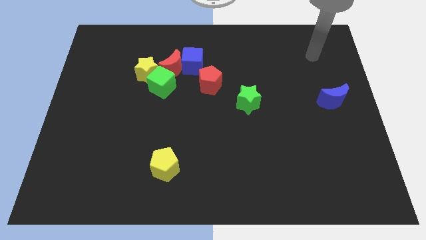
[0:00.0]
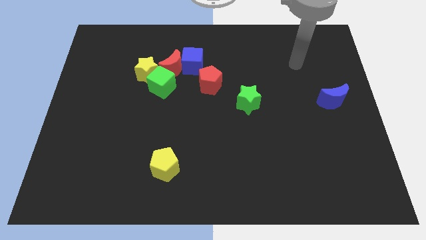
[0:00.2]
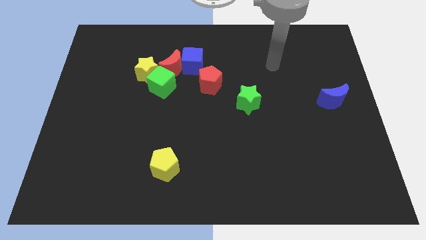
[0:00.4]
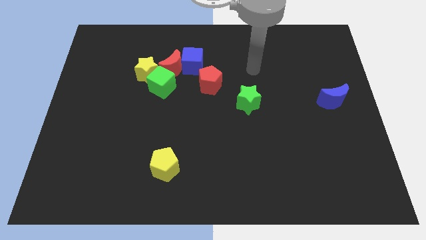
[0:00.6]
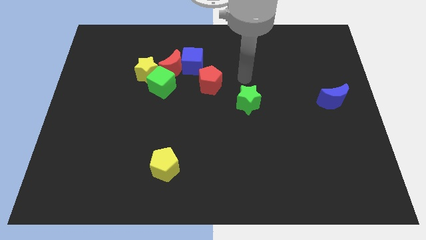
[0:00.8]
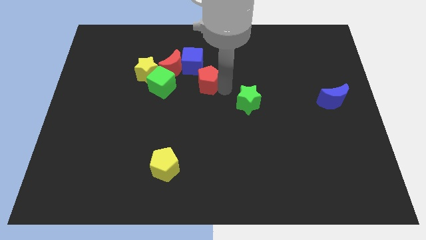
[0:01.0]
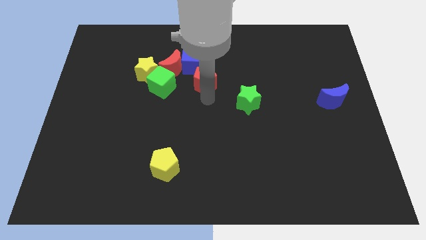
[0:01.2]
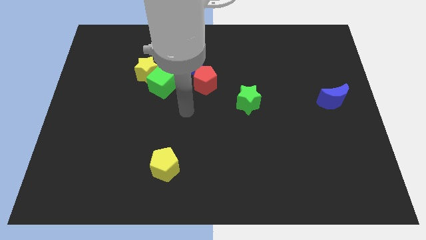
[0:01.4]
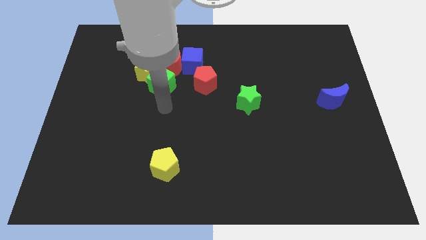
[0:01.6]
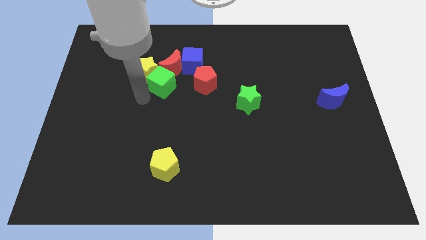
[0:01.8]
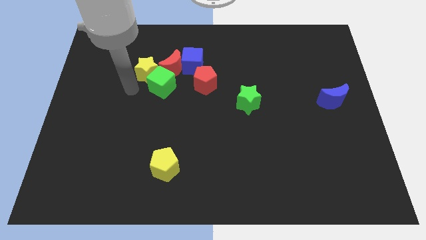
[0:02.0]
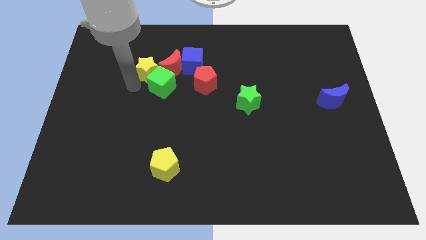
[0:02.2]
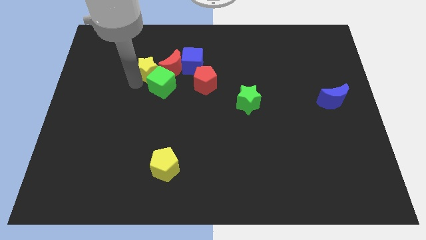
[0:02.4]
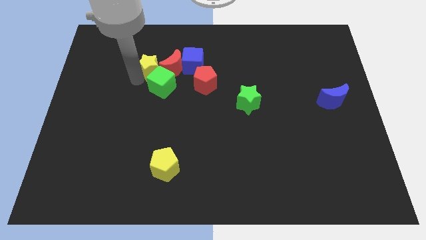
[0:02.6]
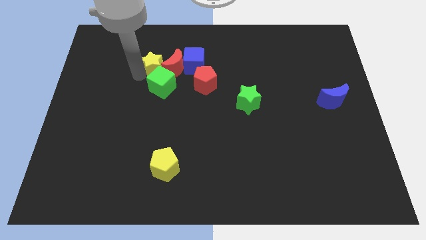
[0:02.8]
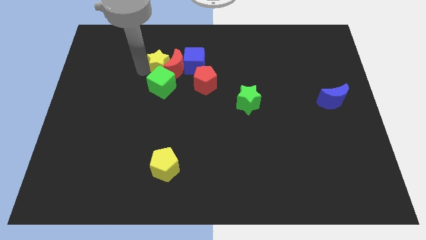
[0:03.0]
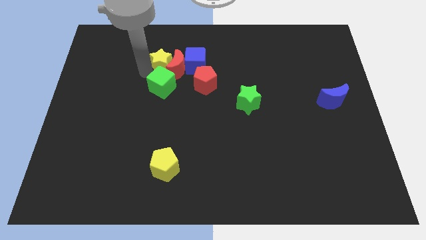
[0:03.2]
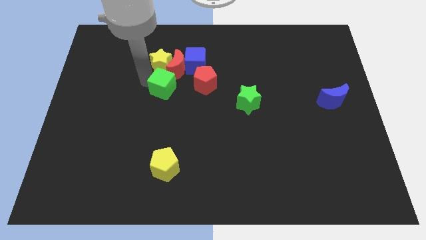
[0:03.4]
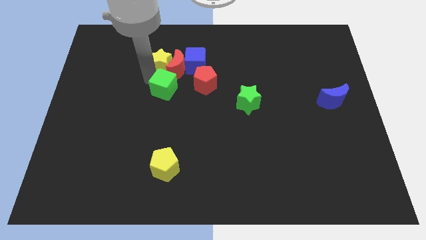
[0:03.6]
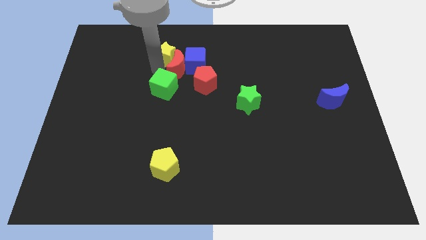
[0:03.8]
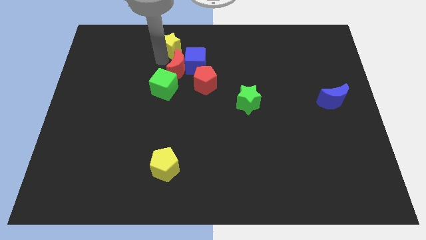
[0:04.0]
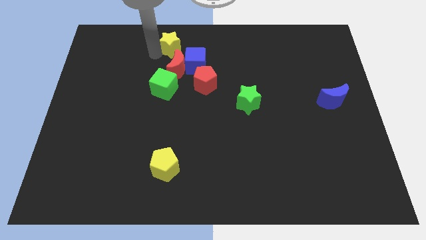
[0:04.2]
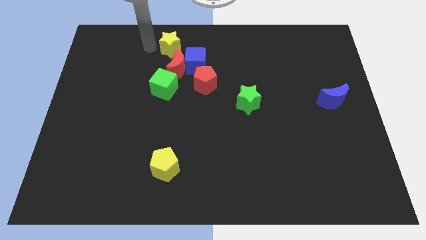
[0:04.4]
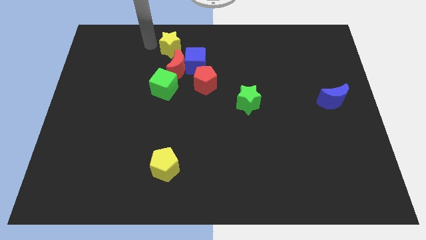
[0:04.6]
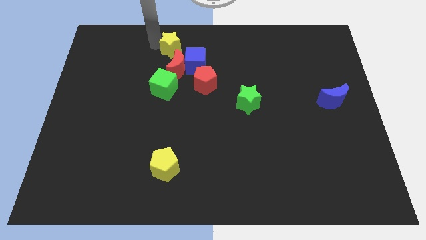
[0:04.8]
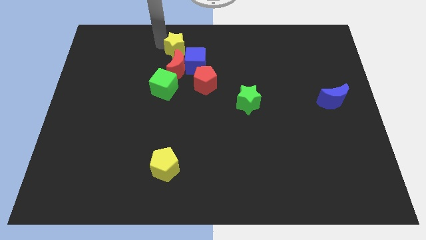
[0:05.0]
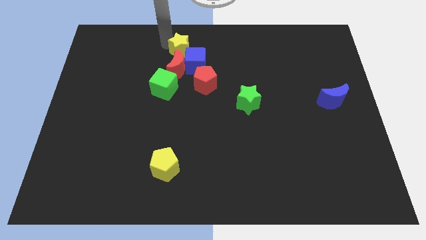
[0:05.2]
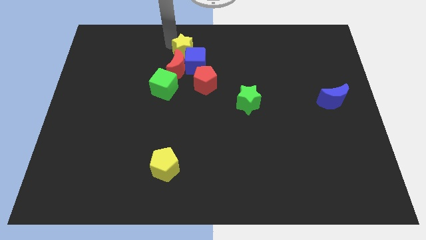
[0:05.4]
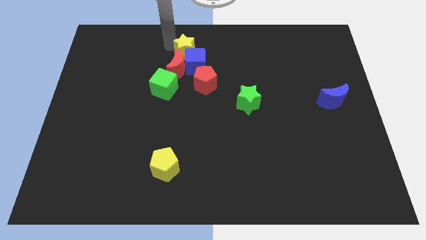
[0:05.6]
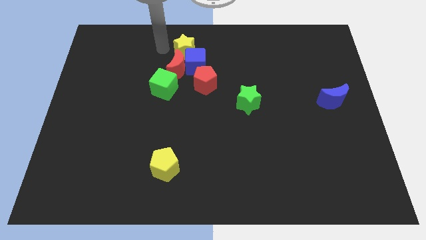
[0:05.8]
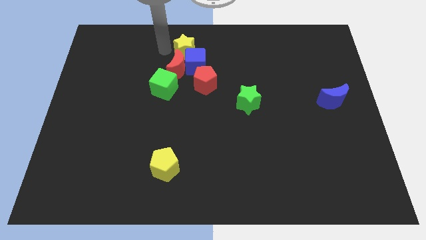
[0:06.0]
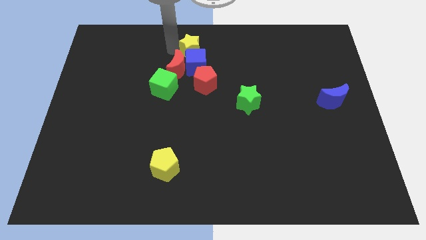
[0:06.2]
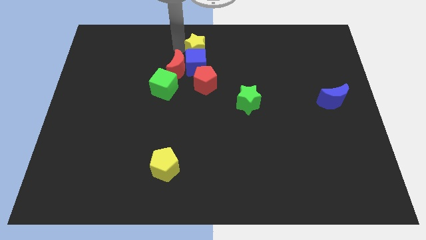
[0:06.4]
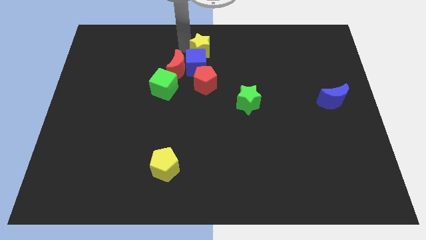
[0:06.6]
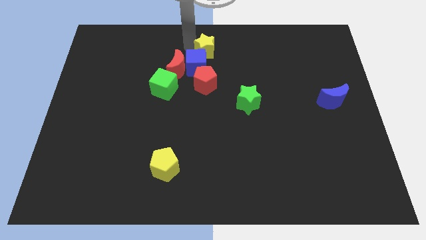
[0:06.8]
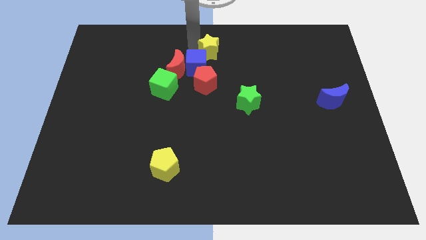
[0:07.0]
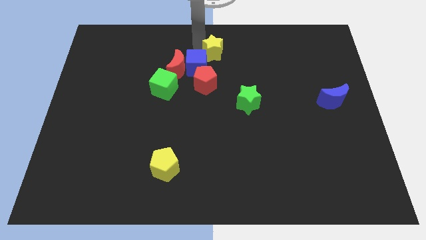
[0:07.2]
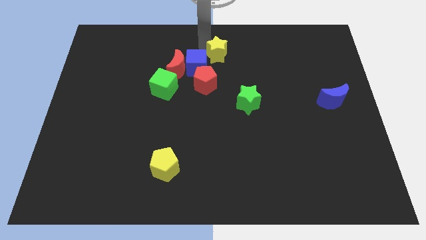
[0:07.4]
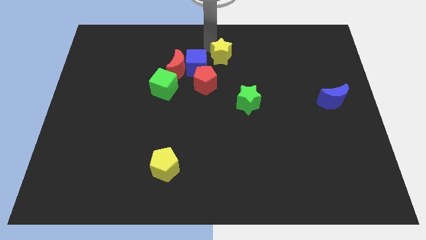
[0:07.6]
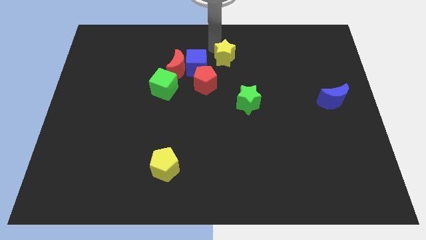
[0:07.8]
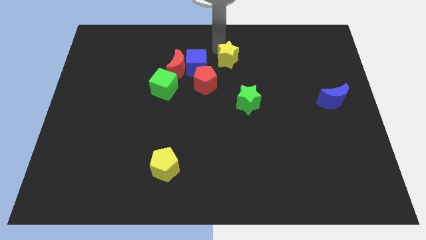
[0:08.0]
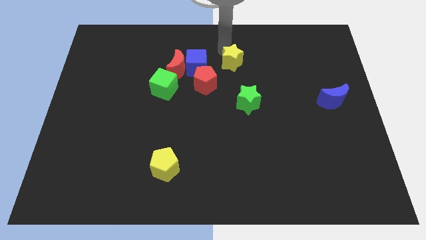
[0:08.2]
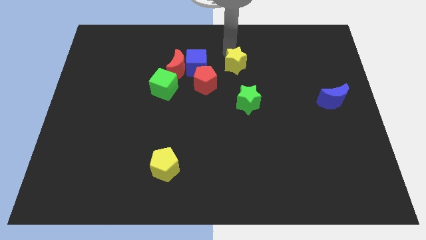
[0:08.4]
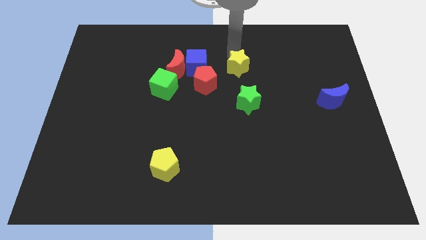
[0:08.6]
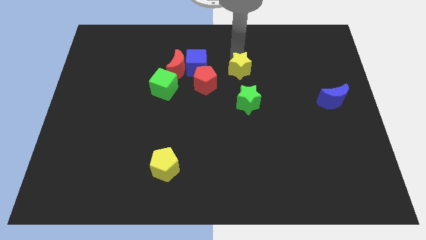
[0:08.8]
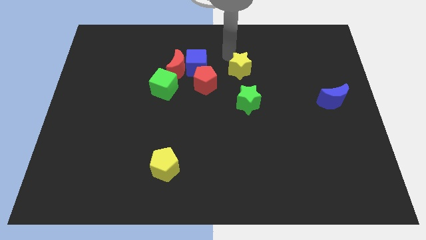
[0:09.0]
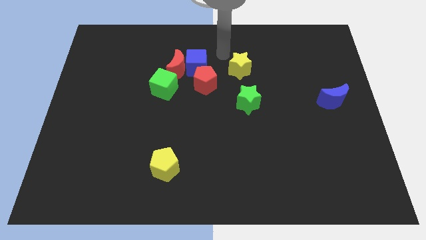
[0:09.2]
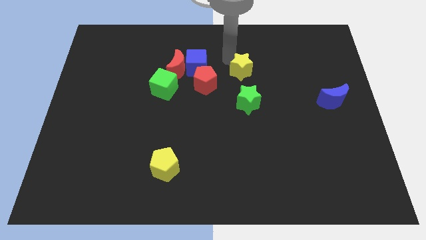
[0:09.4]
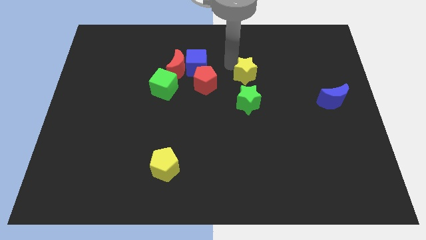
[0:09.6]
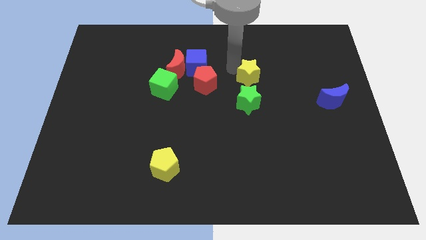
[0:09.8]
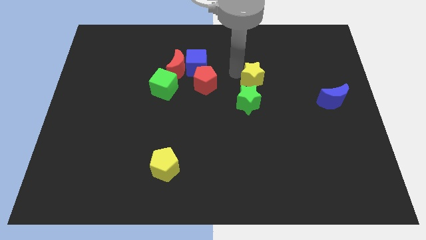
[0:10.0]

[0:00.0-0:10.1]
slide the yellow star to the top right of the green star

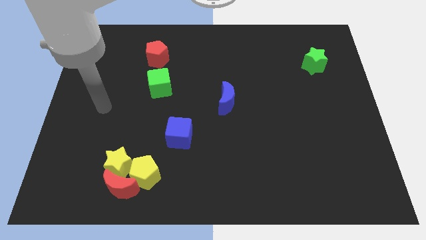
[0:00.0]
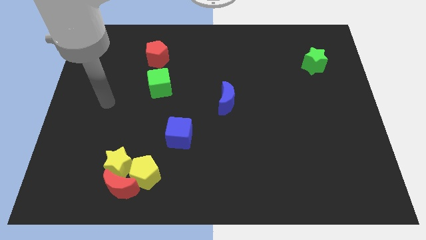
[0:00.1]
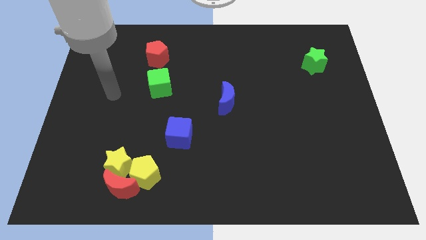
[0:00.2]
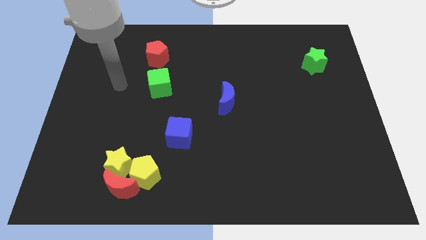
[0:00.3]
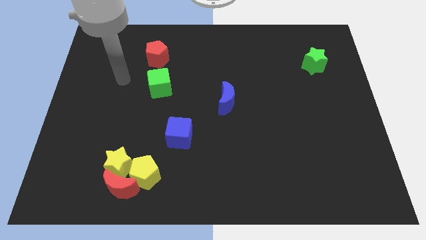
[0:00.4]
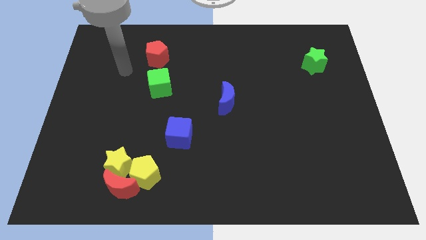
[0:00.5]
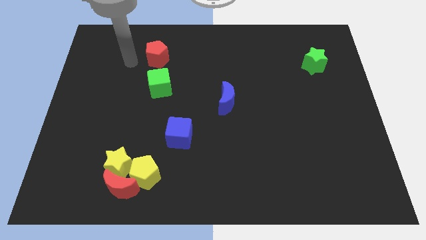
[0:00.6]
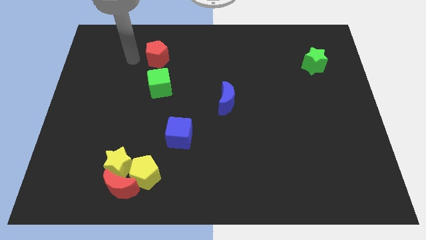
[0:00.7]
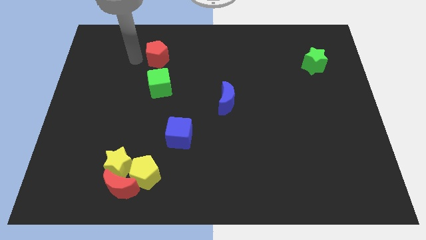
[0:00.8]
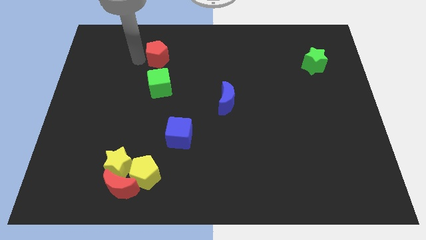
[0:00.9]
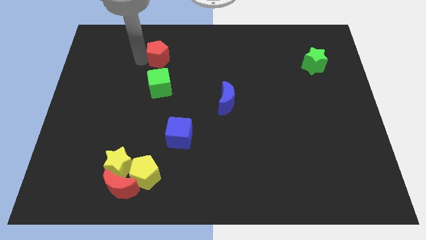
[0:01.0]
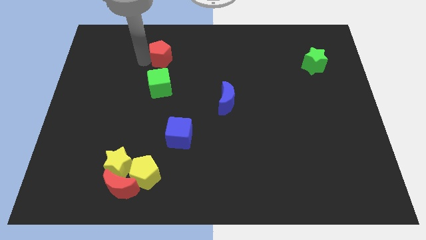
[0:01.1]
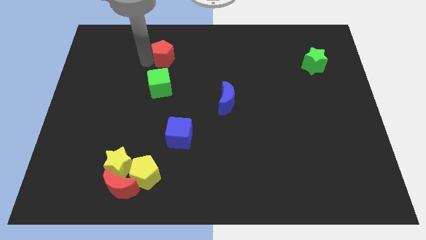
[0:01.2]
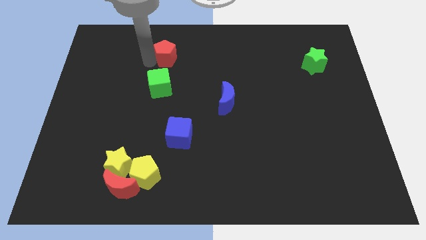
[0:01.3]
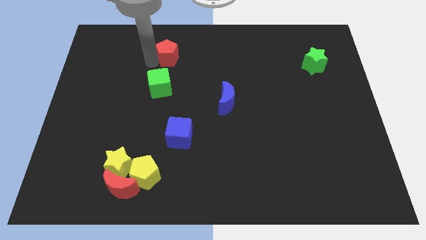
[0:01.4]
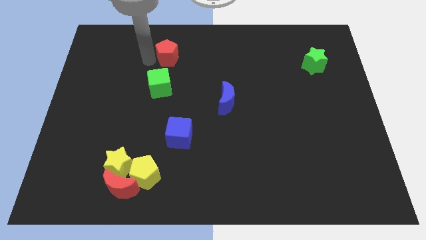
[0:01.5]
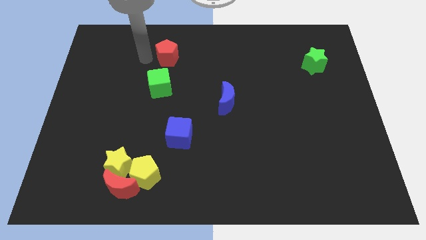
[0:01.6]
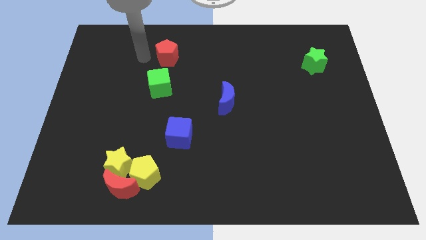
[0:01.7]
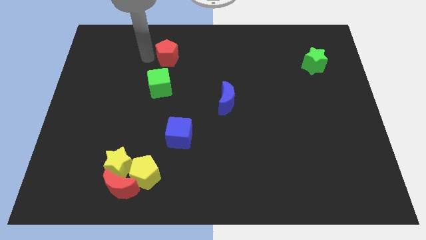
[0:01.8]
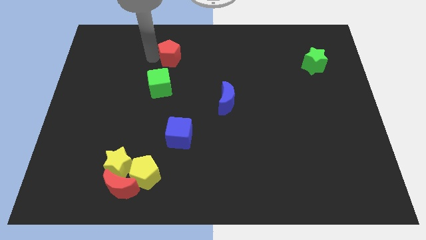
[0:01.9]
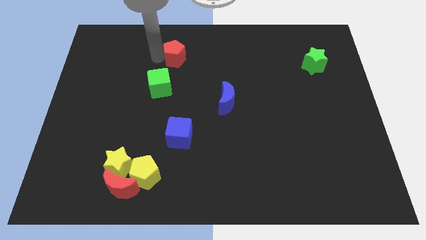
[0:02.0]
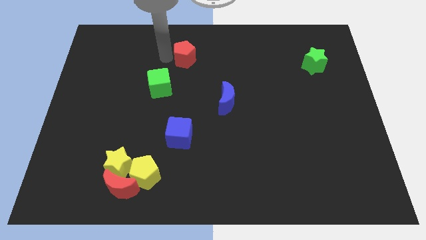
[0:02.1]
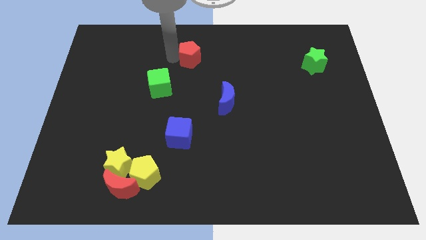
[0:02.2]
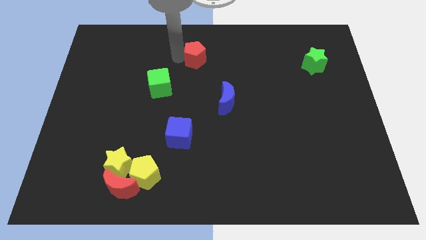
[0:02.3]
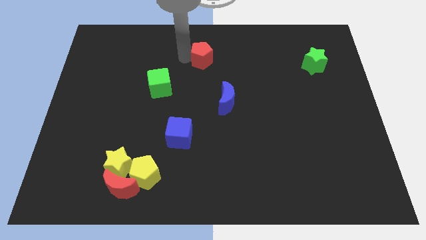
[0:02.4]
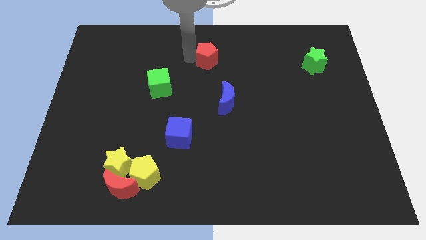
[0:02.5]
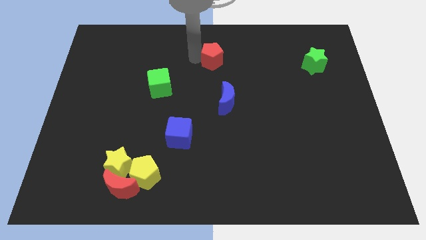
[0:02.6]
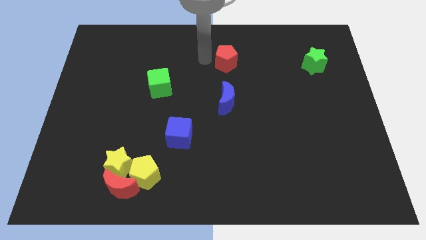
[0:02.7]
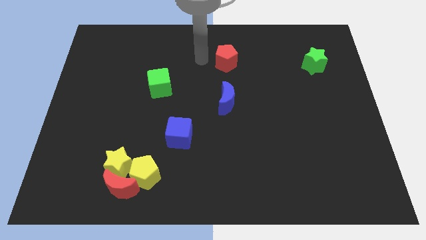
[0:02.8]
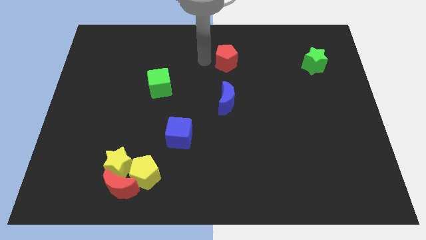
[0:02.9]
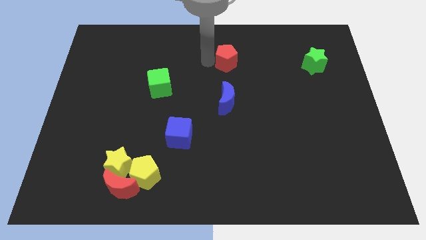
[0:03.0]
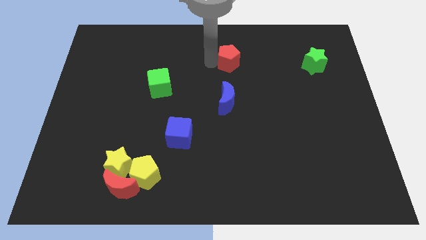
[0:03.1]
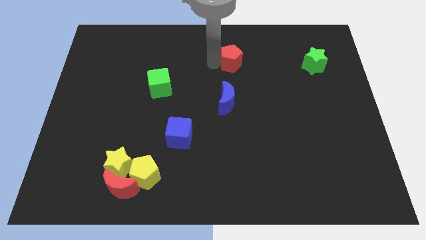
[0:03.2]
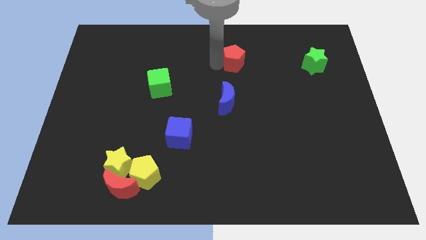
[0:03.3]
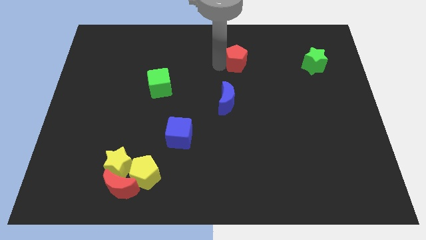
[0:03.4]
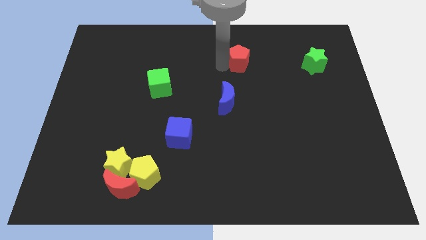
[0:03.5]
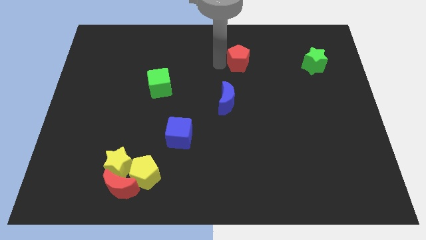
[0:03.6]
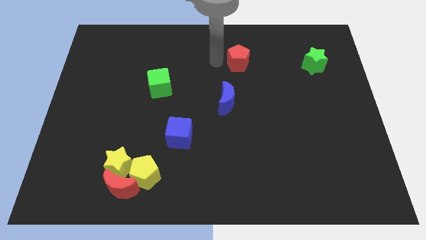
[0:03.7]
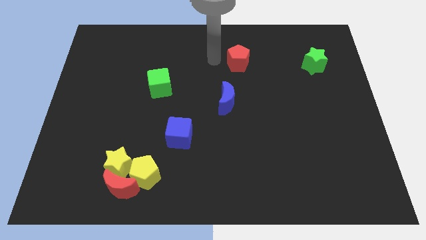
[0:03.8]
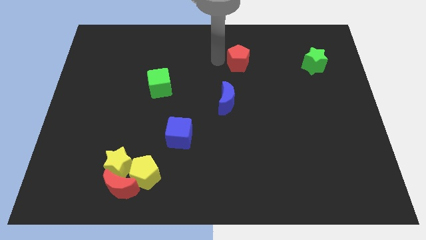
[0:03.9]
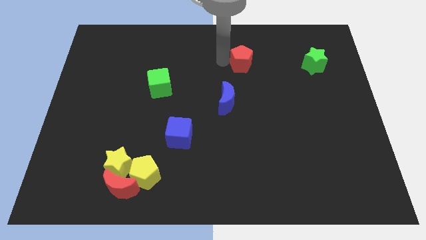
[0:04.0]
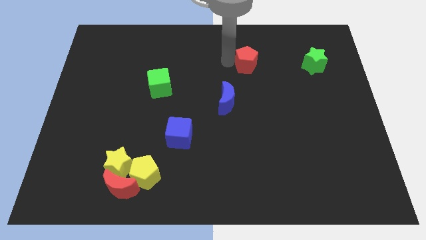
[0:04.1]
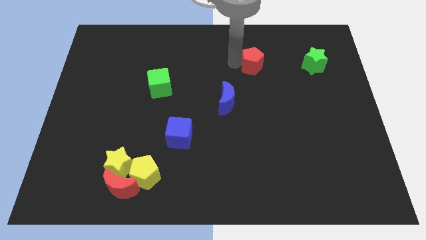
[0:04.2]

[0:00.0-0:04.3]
put the red pentagon left of the green star
